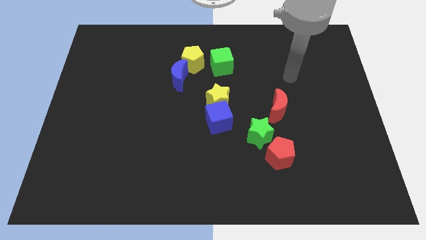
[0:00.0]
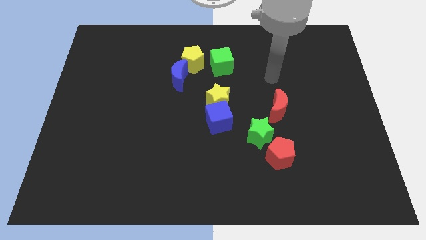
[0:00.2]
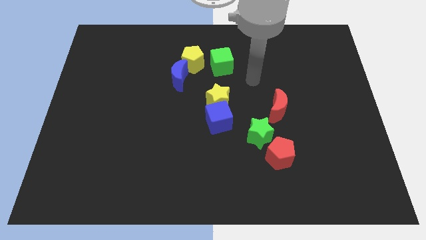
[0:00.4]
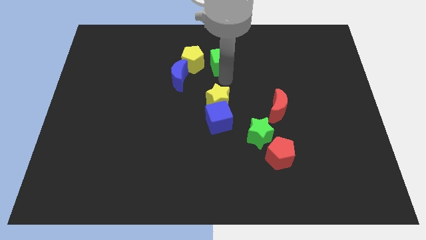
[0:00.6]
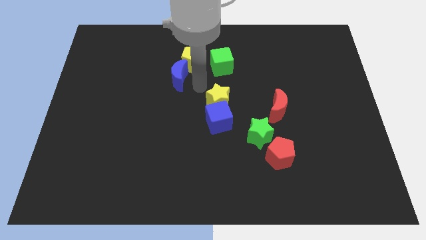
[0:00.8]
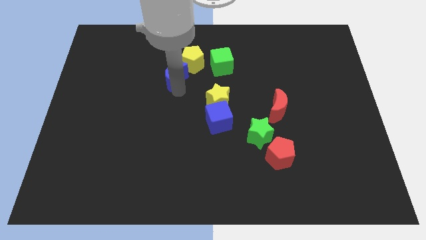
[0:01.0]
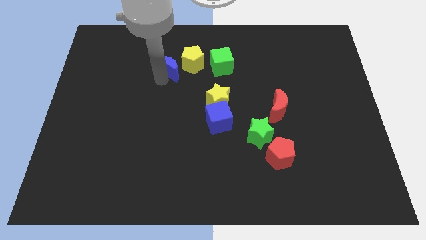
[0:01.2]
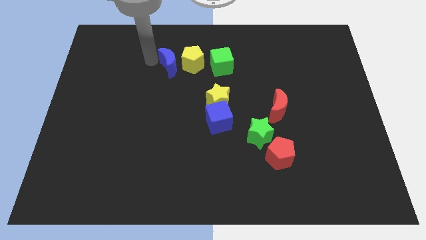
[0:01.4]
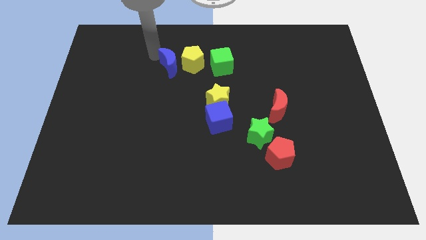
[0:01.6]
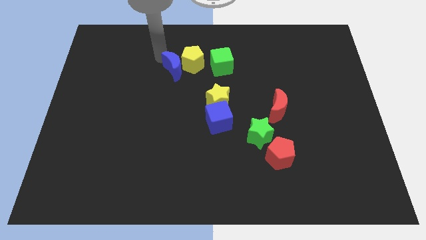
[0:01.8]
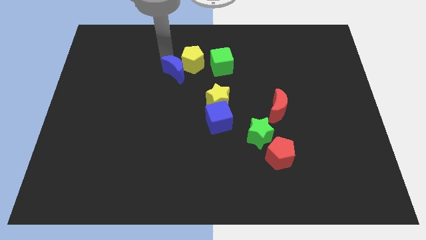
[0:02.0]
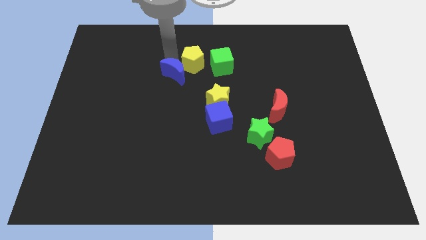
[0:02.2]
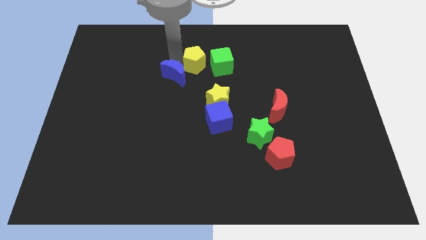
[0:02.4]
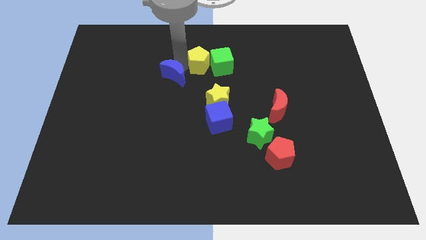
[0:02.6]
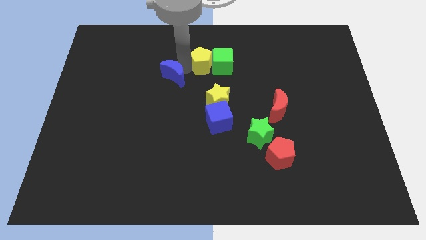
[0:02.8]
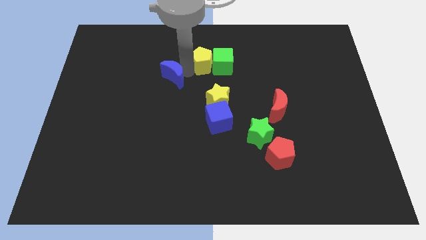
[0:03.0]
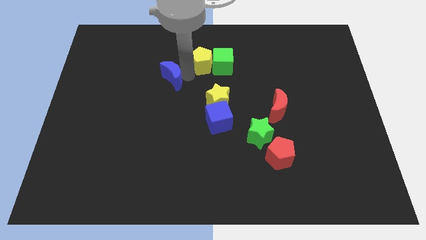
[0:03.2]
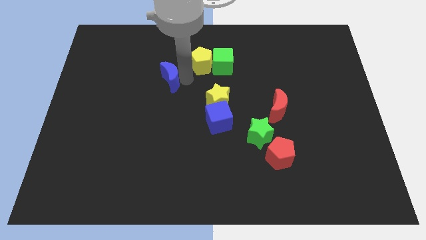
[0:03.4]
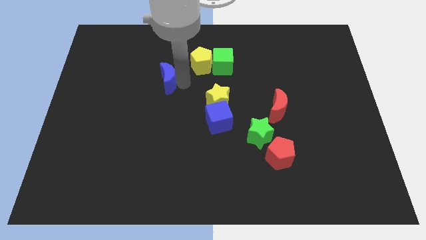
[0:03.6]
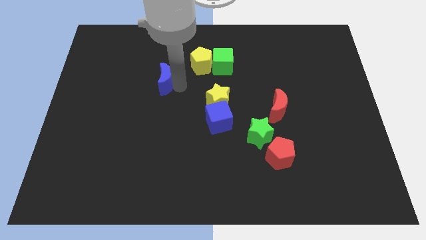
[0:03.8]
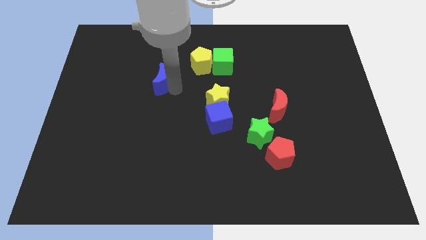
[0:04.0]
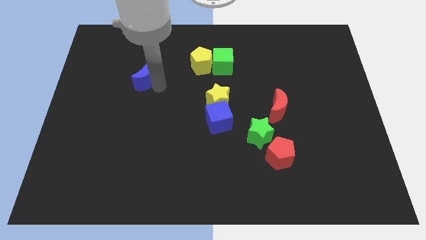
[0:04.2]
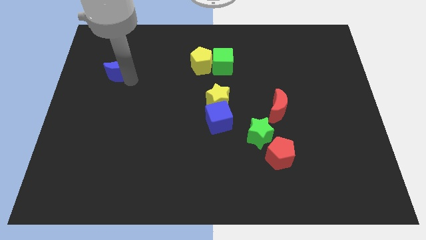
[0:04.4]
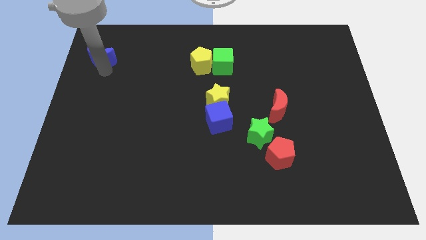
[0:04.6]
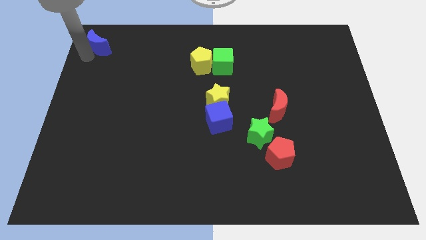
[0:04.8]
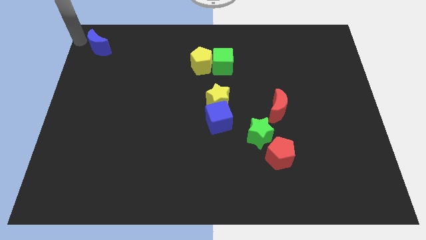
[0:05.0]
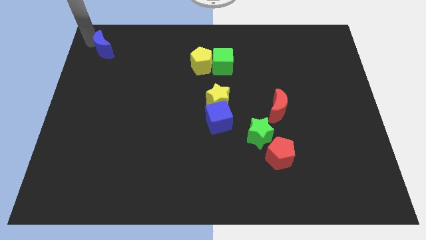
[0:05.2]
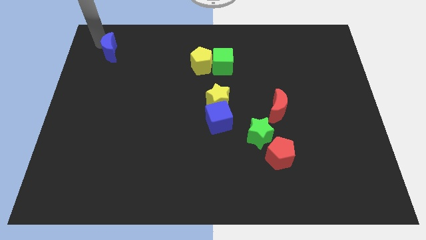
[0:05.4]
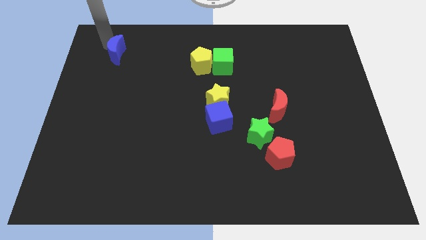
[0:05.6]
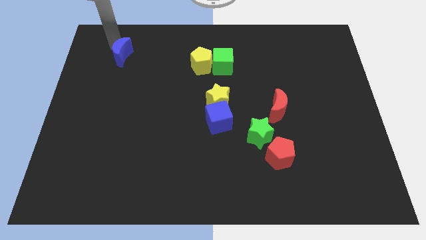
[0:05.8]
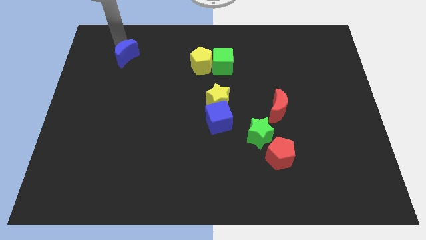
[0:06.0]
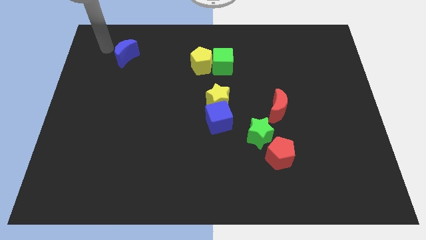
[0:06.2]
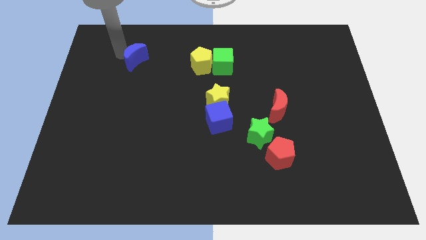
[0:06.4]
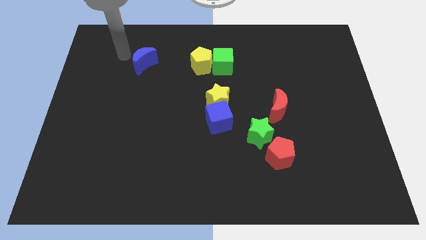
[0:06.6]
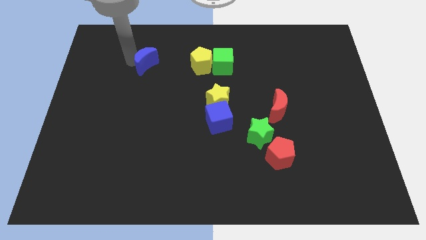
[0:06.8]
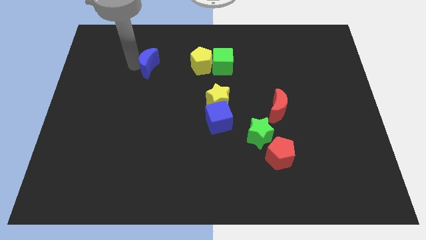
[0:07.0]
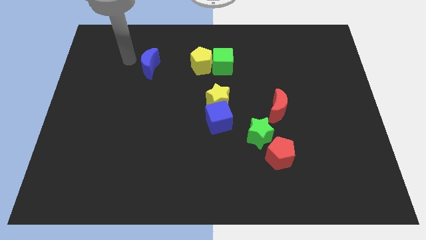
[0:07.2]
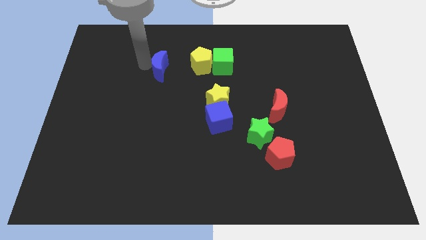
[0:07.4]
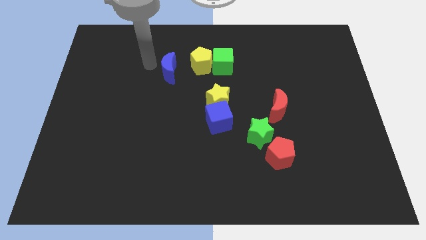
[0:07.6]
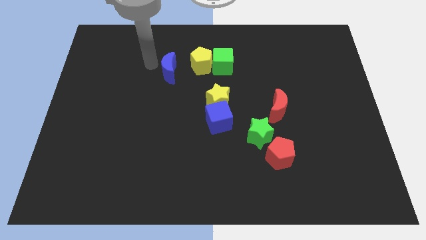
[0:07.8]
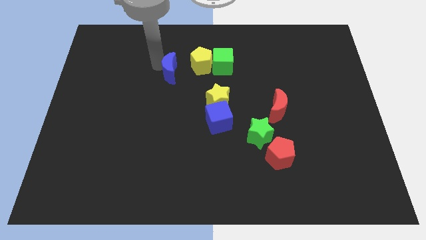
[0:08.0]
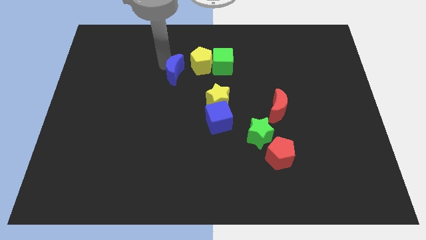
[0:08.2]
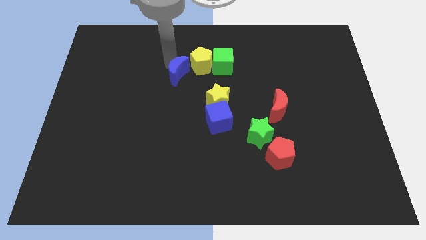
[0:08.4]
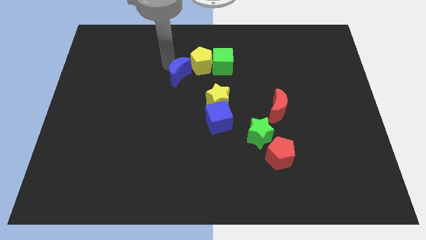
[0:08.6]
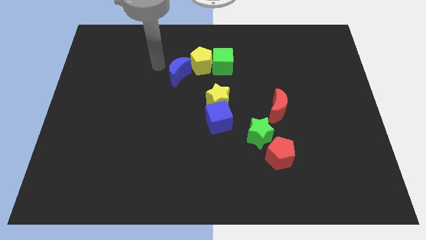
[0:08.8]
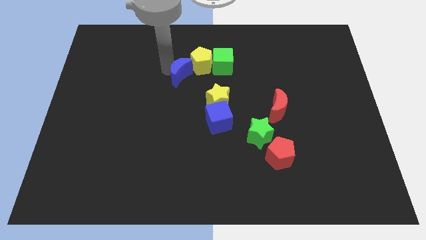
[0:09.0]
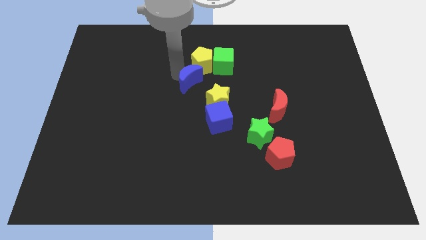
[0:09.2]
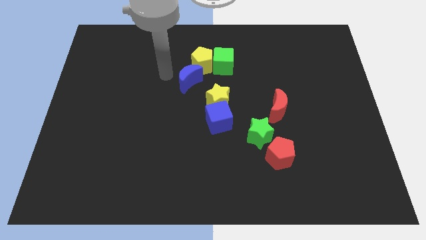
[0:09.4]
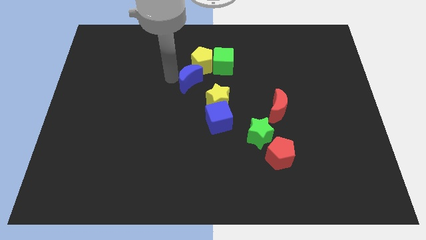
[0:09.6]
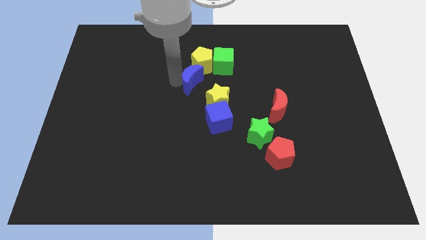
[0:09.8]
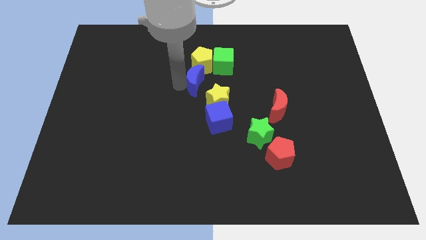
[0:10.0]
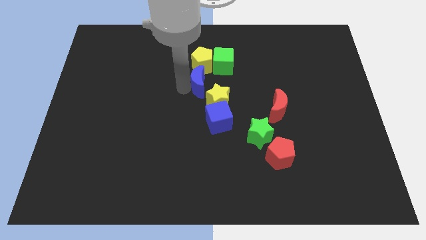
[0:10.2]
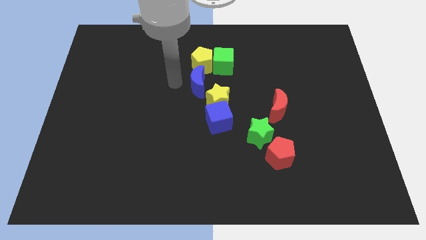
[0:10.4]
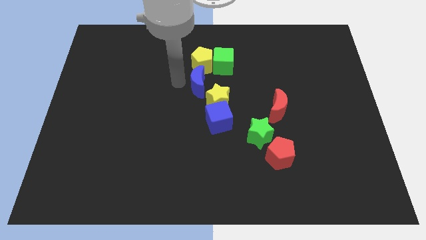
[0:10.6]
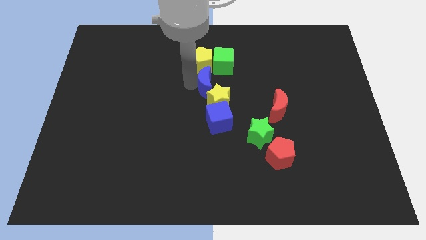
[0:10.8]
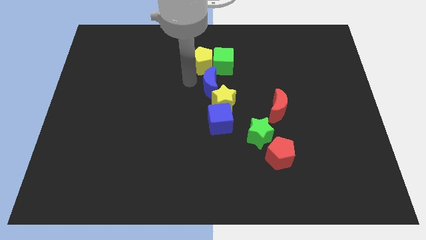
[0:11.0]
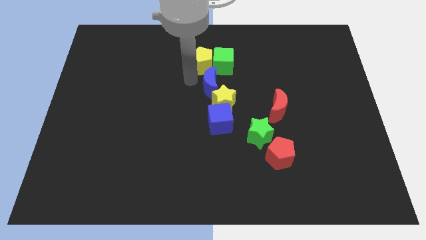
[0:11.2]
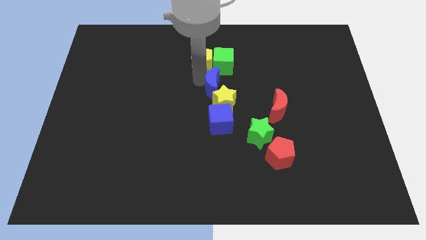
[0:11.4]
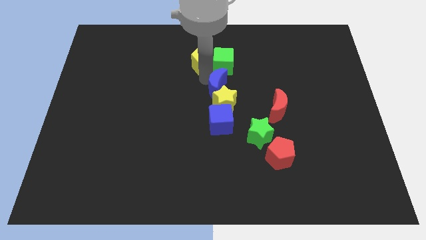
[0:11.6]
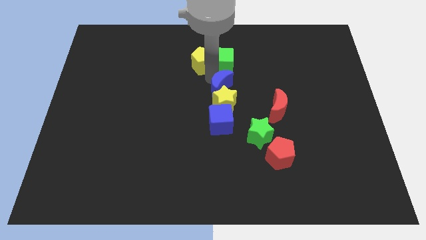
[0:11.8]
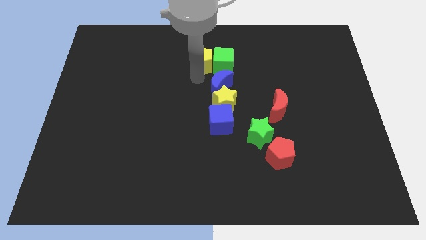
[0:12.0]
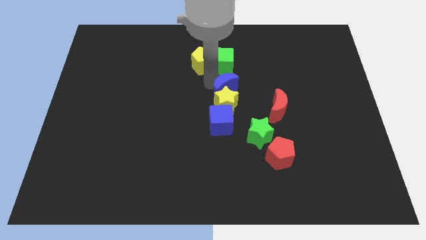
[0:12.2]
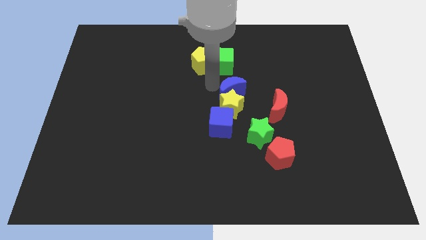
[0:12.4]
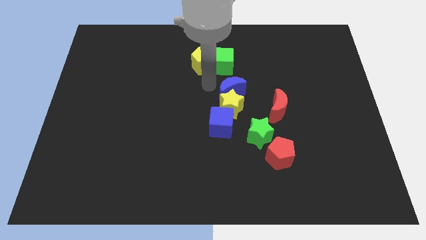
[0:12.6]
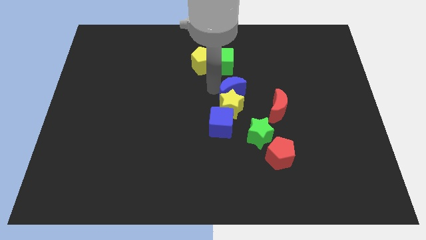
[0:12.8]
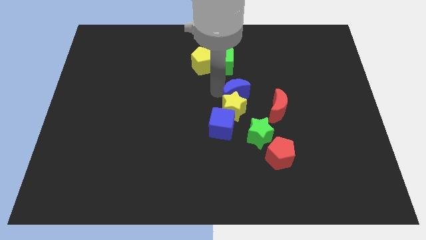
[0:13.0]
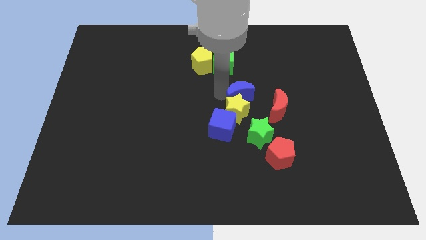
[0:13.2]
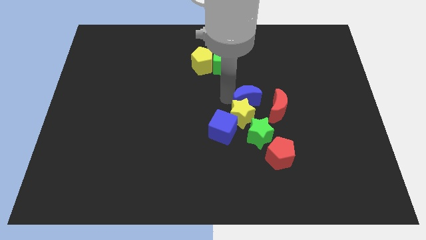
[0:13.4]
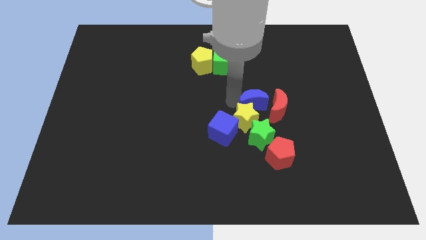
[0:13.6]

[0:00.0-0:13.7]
slide the blue moon to the red moon
